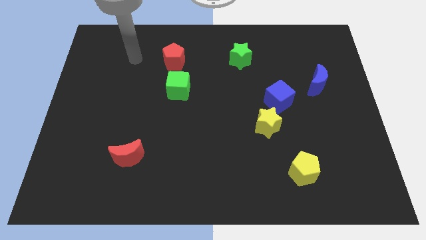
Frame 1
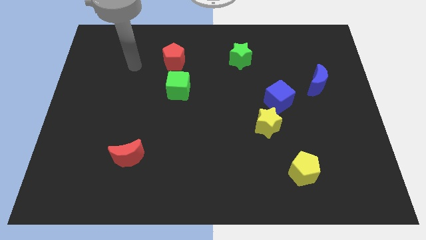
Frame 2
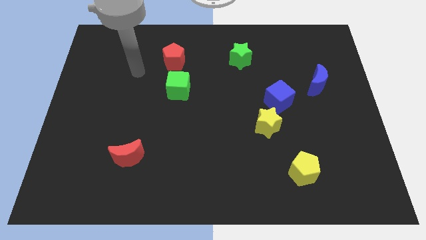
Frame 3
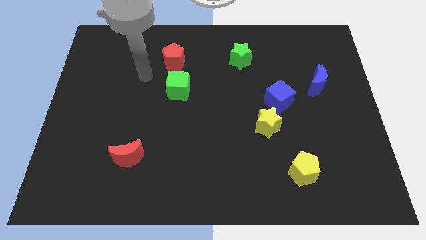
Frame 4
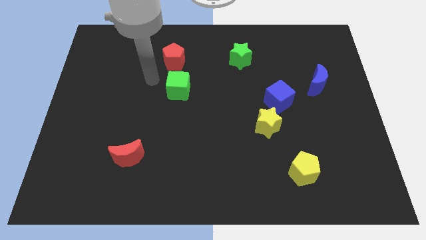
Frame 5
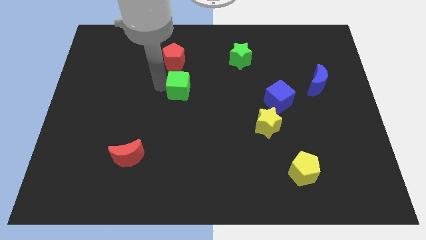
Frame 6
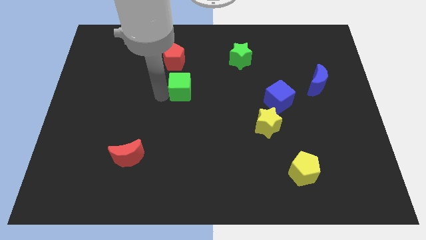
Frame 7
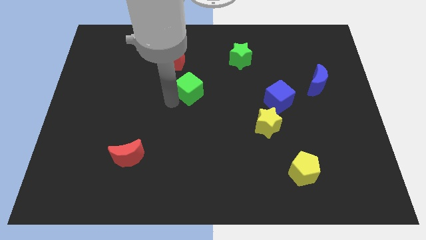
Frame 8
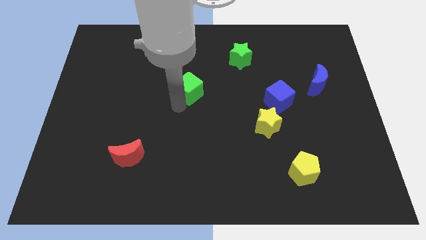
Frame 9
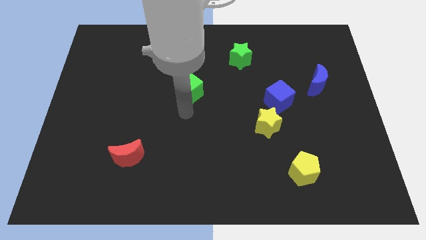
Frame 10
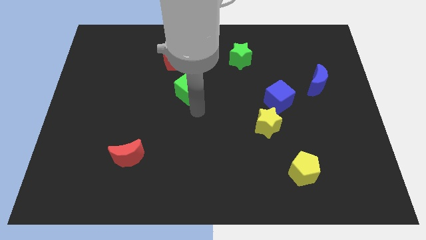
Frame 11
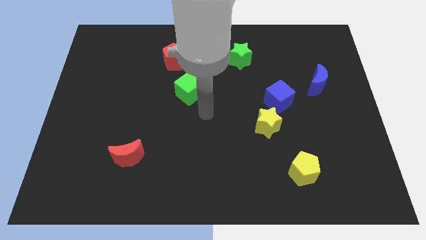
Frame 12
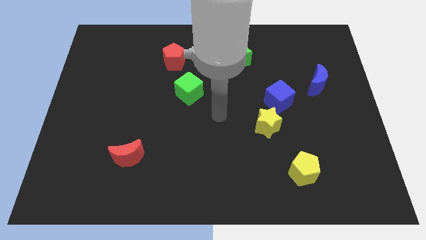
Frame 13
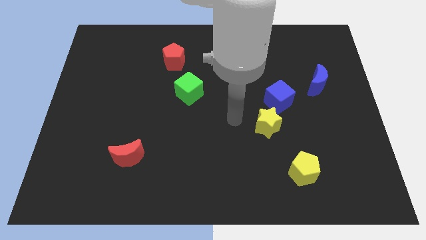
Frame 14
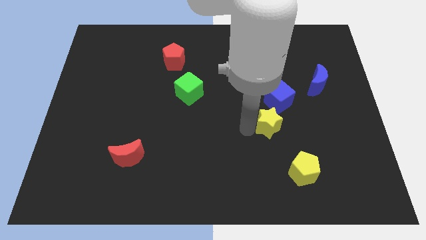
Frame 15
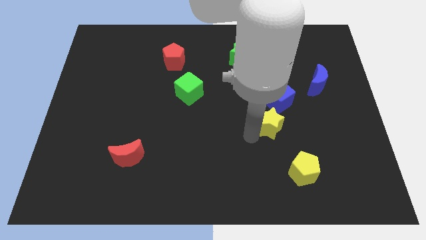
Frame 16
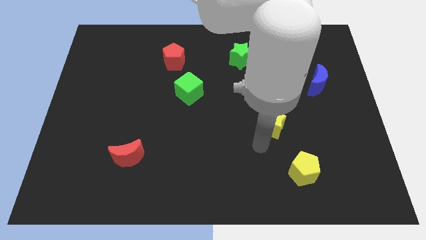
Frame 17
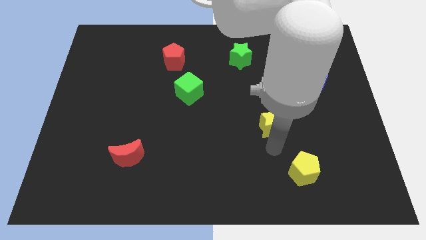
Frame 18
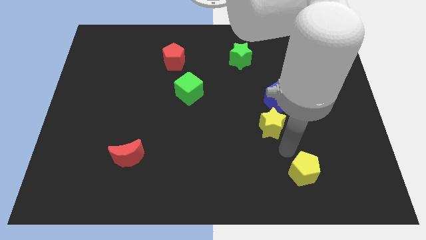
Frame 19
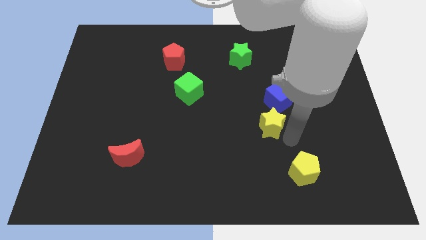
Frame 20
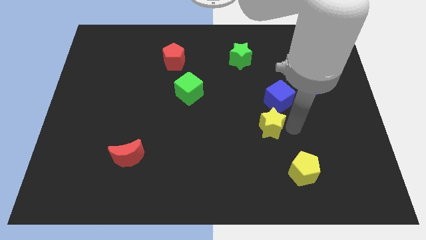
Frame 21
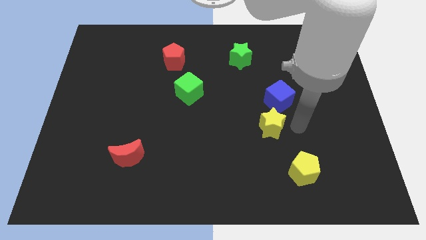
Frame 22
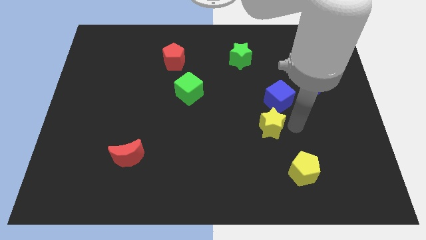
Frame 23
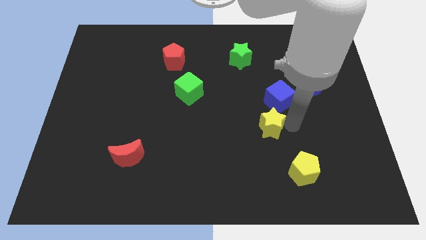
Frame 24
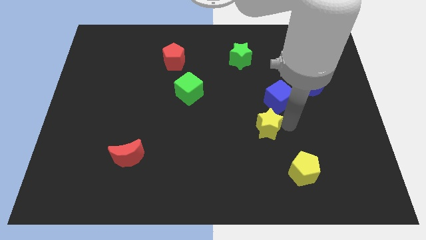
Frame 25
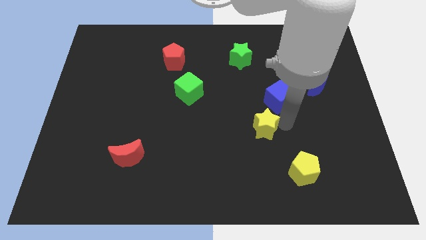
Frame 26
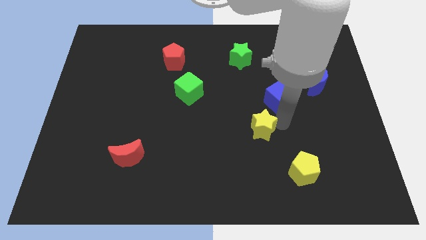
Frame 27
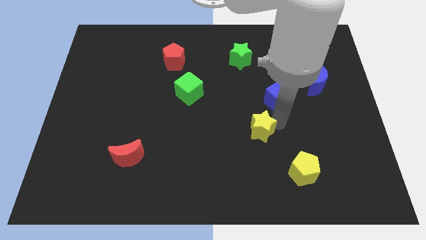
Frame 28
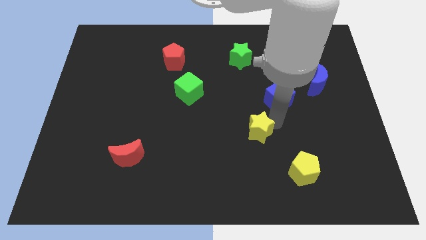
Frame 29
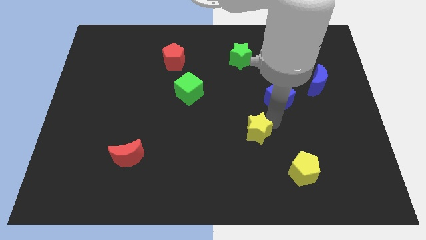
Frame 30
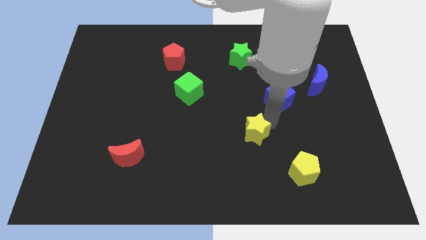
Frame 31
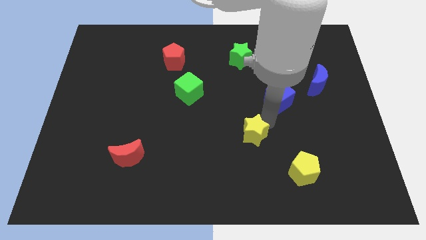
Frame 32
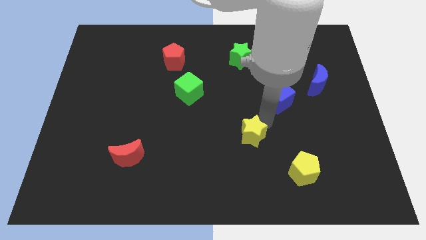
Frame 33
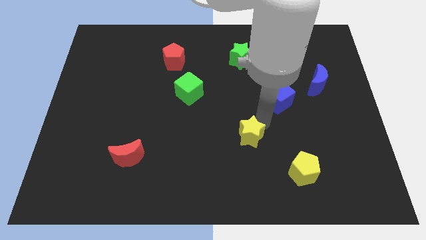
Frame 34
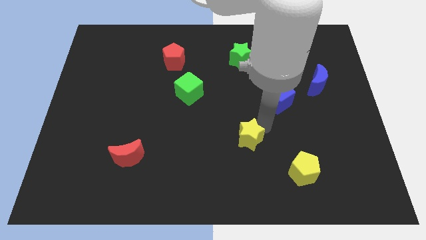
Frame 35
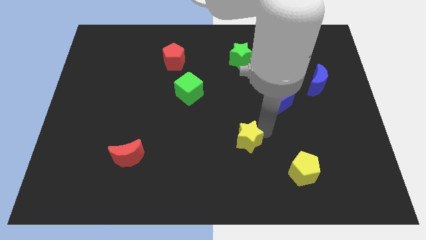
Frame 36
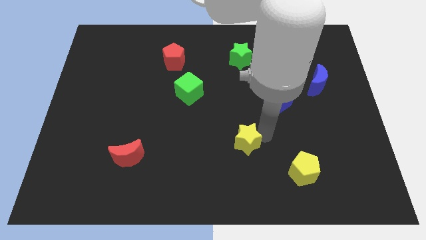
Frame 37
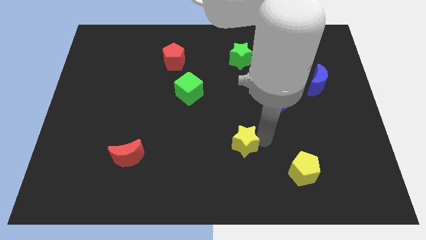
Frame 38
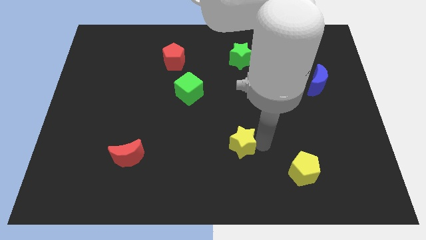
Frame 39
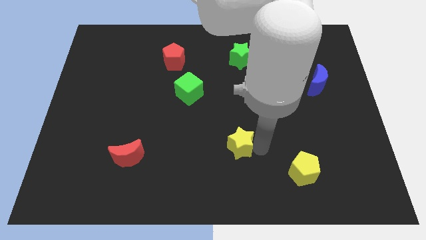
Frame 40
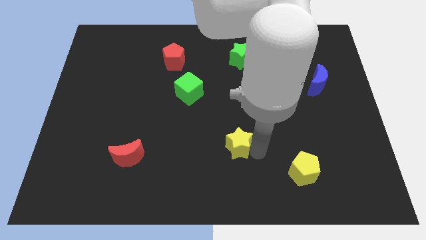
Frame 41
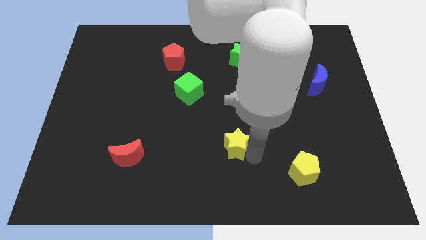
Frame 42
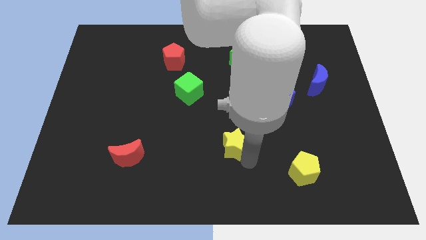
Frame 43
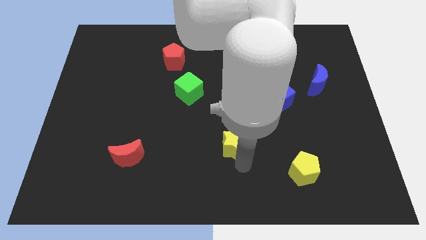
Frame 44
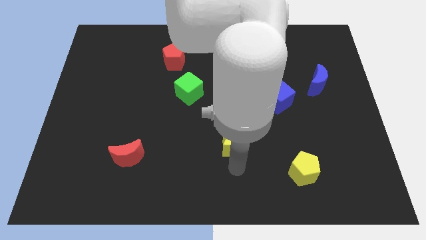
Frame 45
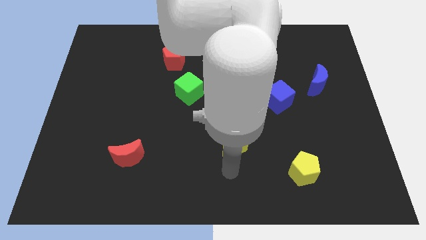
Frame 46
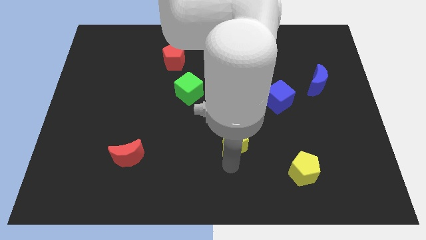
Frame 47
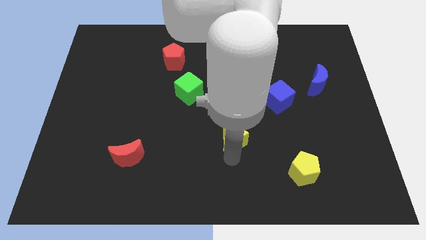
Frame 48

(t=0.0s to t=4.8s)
slightly move the yellow star to the left

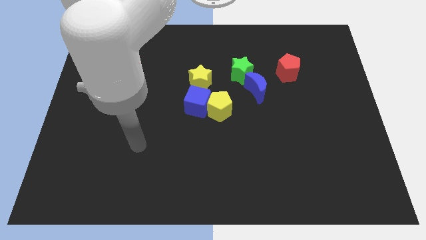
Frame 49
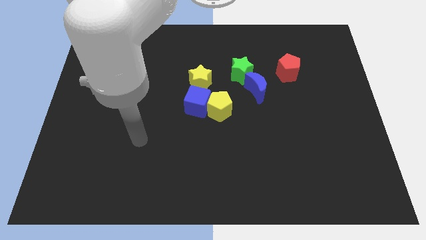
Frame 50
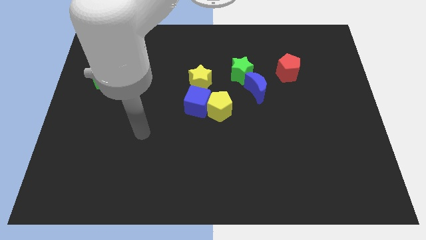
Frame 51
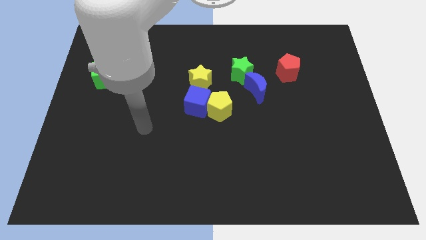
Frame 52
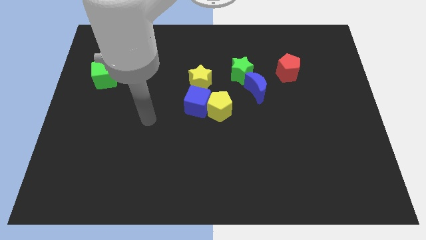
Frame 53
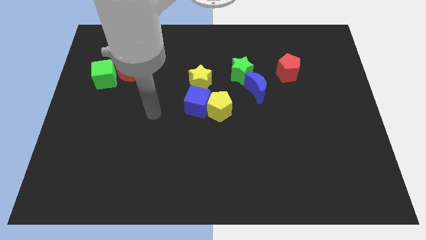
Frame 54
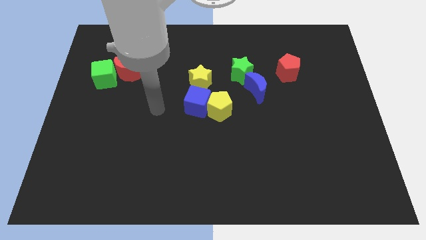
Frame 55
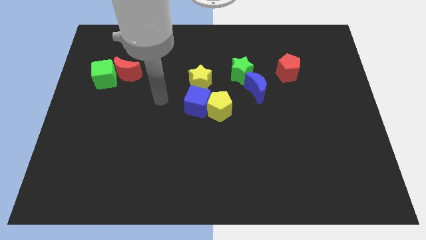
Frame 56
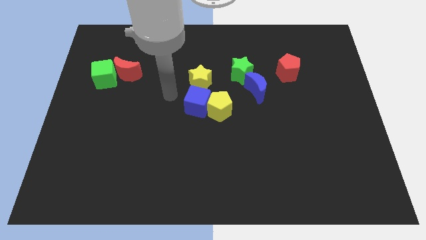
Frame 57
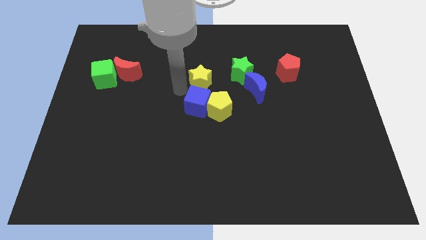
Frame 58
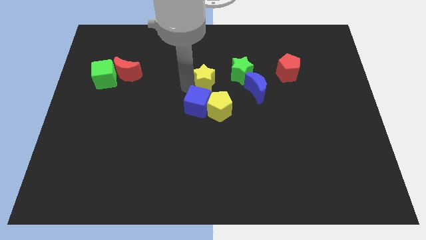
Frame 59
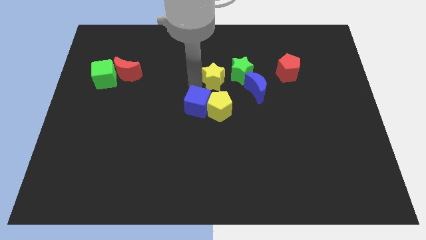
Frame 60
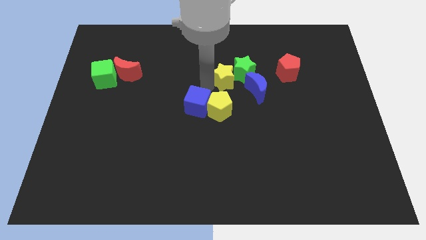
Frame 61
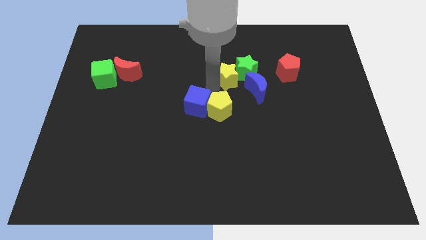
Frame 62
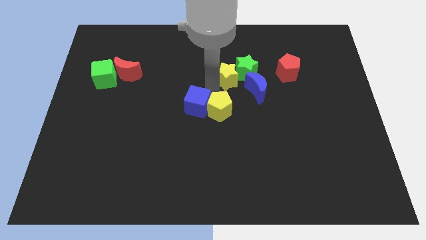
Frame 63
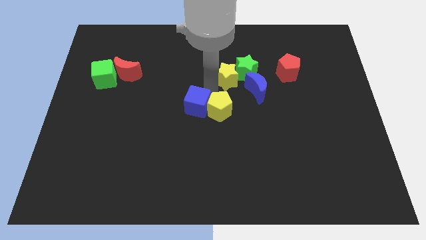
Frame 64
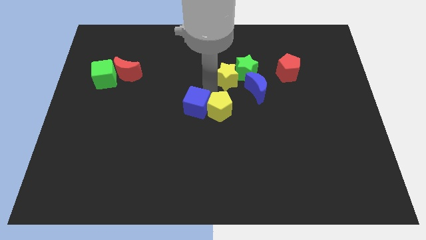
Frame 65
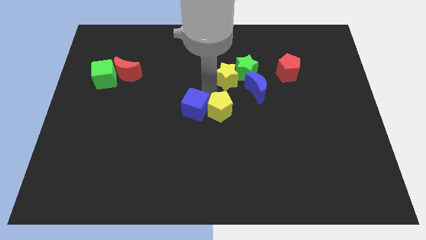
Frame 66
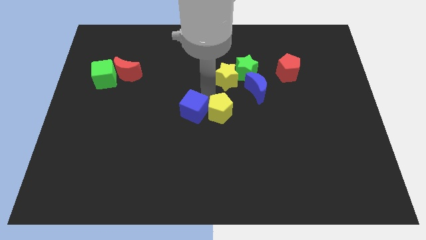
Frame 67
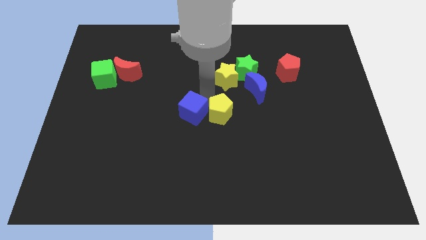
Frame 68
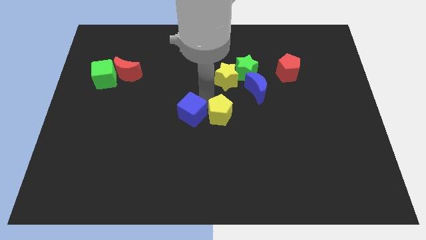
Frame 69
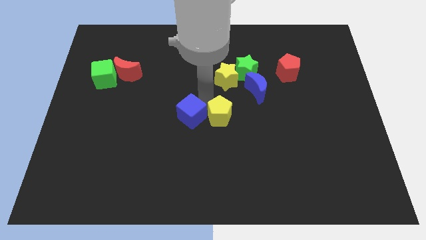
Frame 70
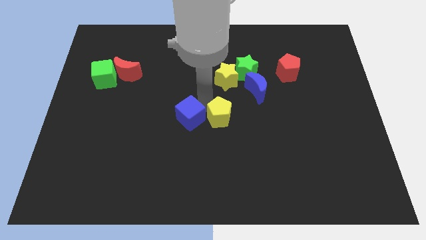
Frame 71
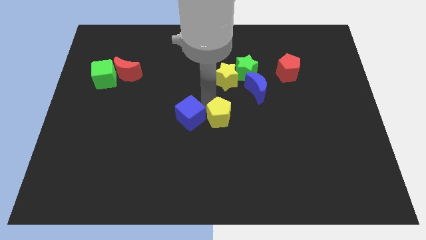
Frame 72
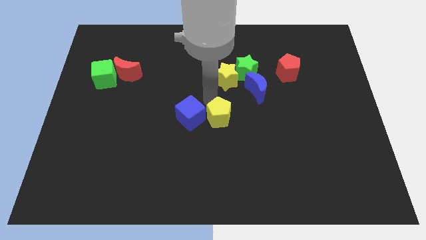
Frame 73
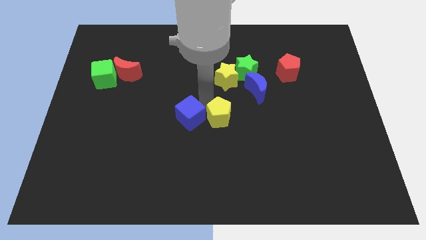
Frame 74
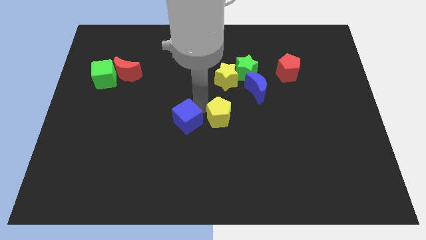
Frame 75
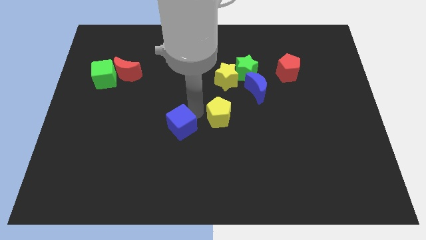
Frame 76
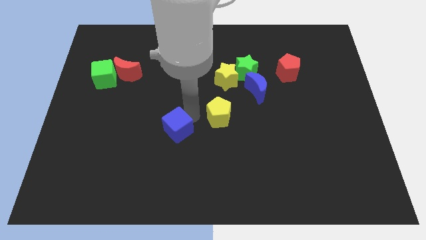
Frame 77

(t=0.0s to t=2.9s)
move the blue cube a little downwards and then to the left

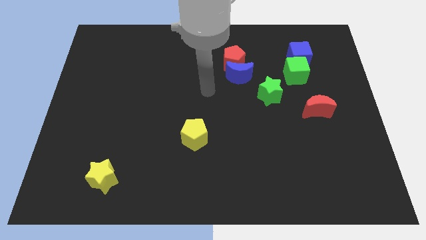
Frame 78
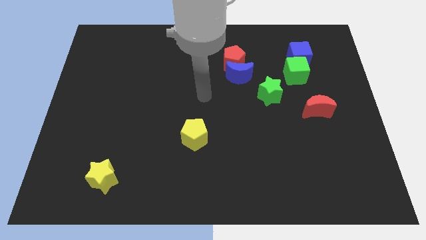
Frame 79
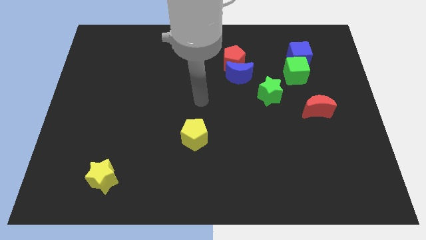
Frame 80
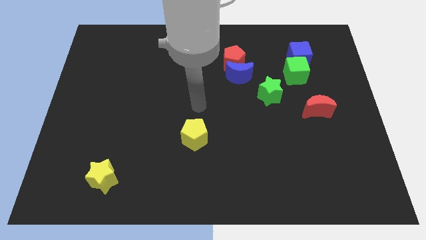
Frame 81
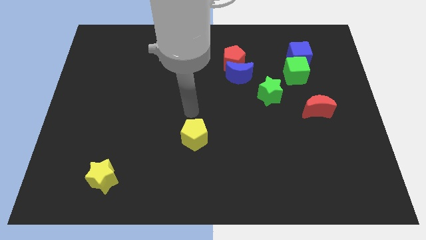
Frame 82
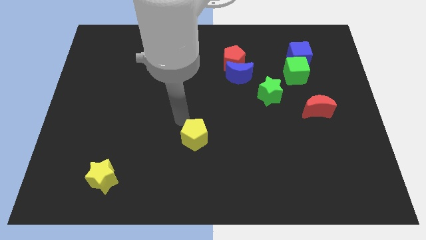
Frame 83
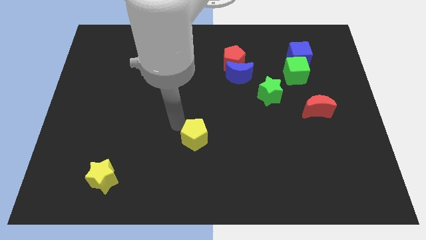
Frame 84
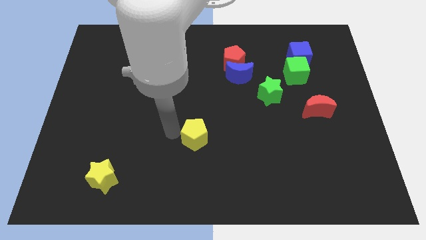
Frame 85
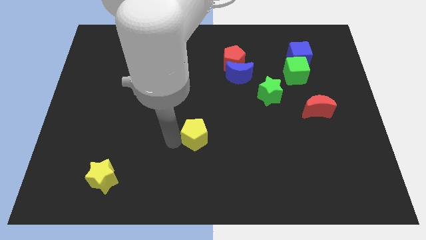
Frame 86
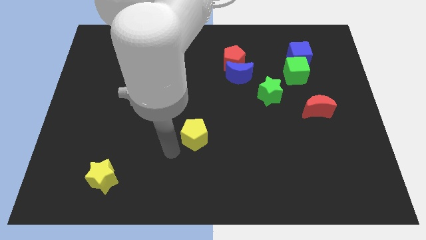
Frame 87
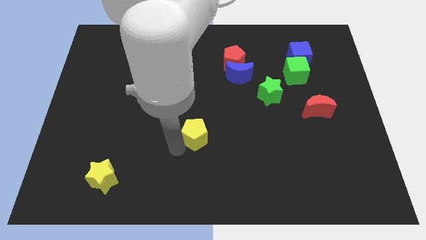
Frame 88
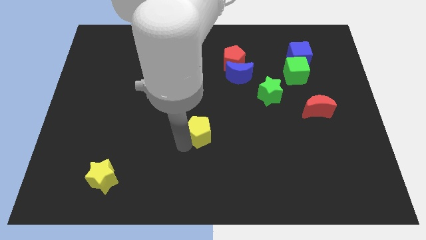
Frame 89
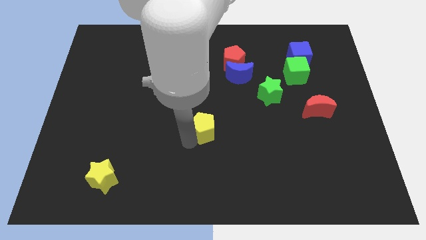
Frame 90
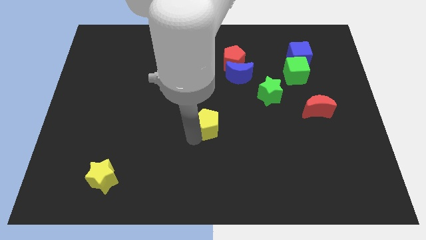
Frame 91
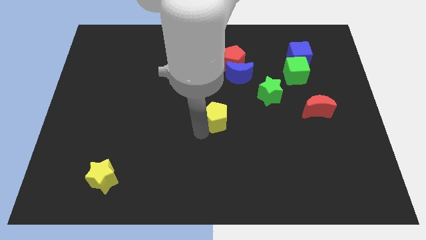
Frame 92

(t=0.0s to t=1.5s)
push the yellow pentagon slightly diagonally up and right
